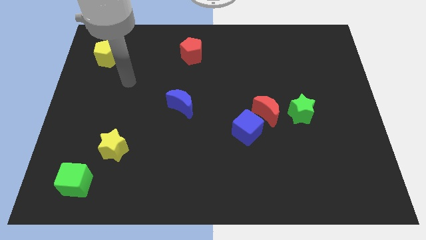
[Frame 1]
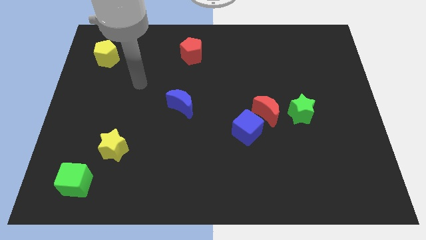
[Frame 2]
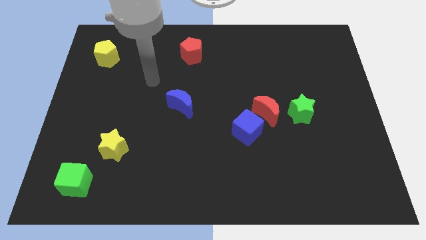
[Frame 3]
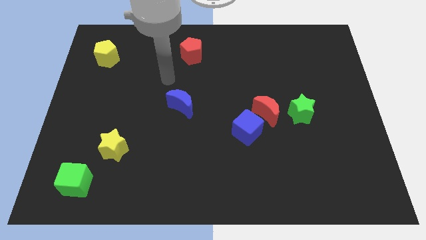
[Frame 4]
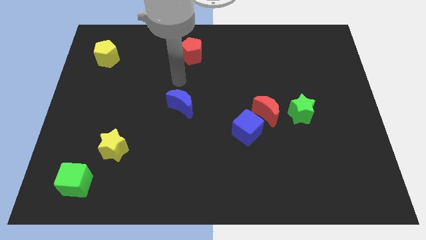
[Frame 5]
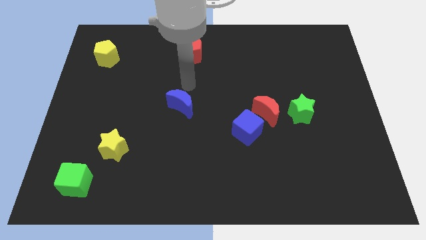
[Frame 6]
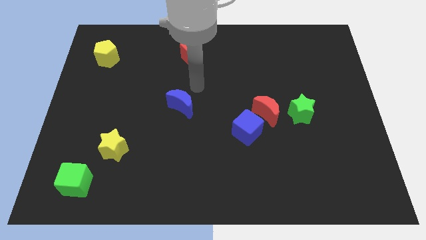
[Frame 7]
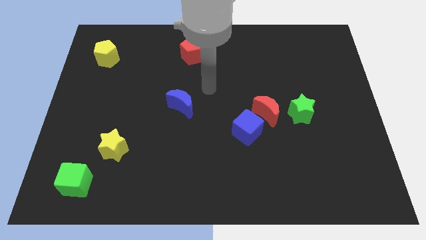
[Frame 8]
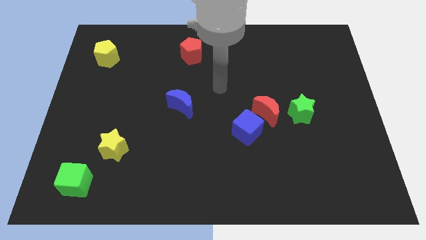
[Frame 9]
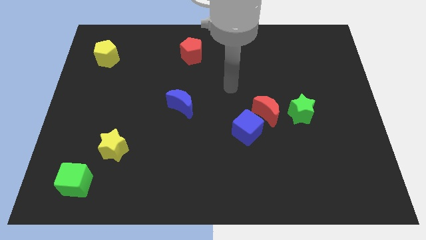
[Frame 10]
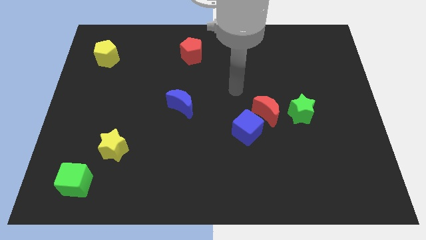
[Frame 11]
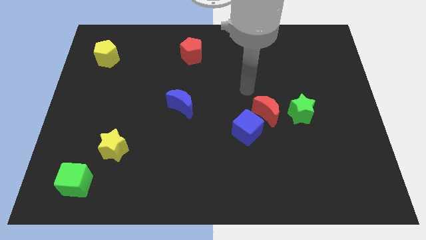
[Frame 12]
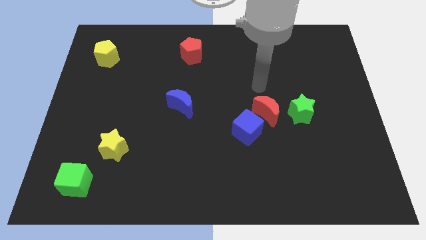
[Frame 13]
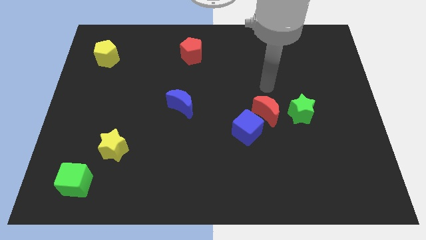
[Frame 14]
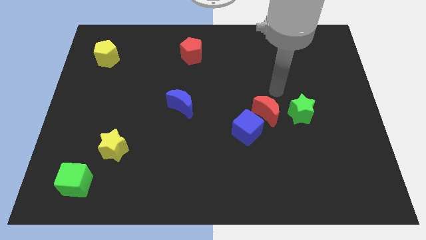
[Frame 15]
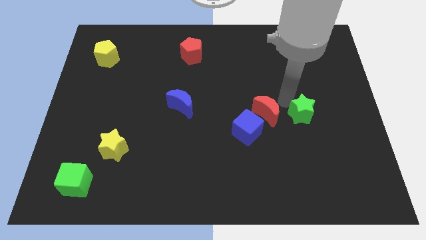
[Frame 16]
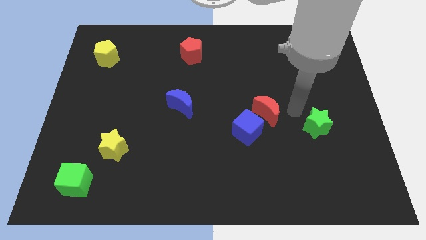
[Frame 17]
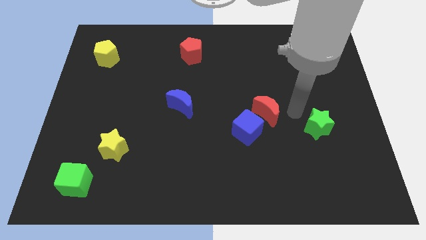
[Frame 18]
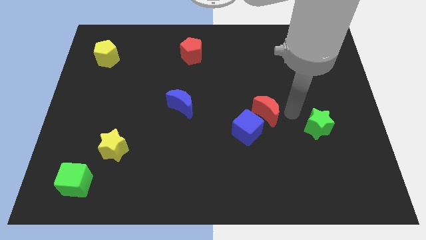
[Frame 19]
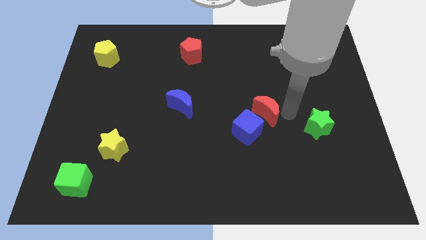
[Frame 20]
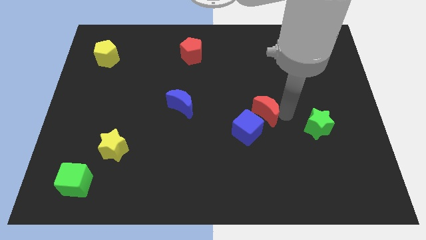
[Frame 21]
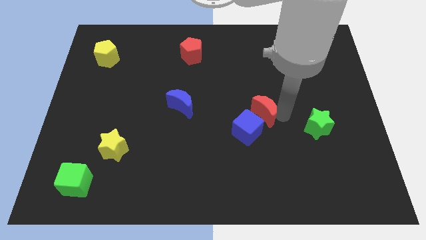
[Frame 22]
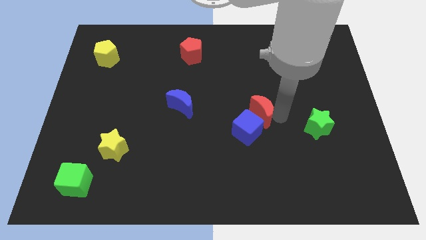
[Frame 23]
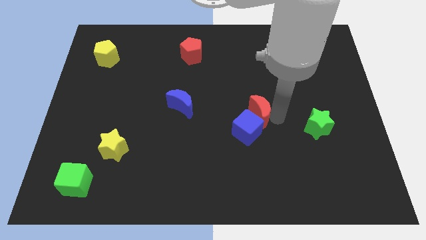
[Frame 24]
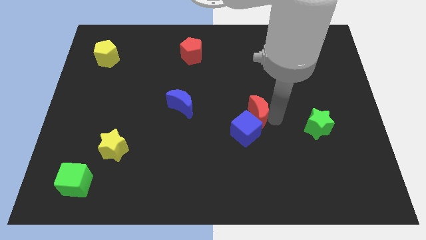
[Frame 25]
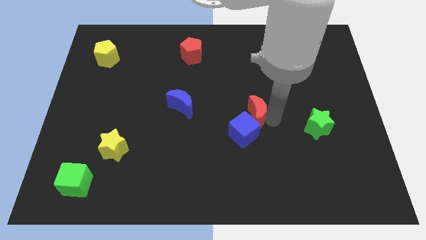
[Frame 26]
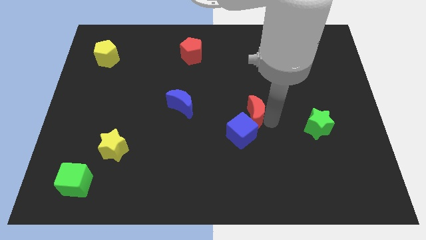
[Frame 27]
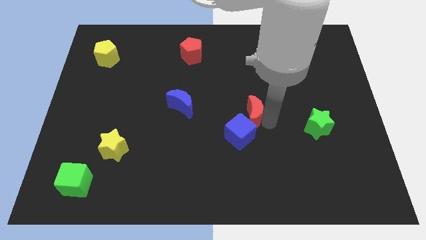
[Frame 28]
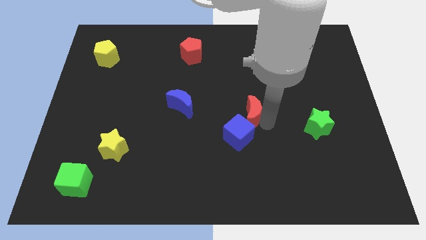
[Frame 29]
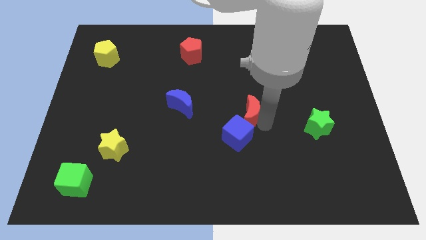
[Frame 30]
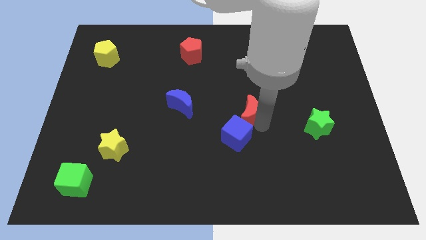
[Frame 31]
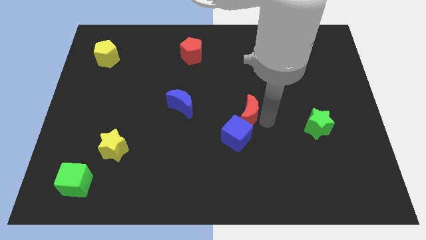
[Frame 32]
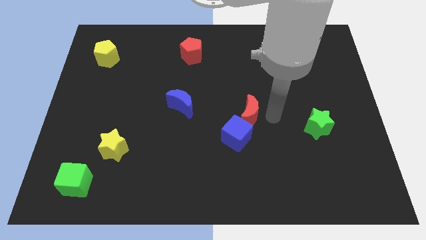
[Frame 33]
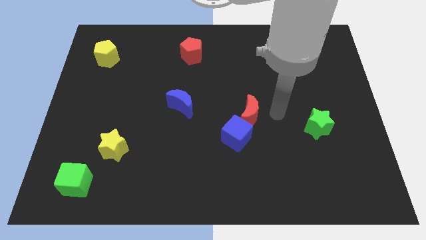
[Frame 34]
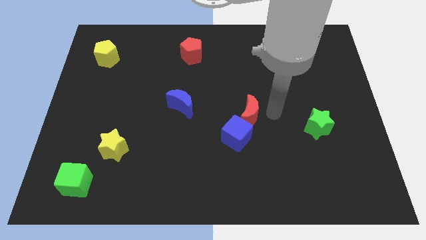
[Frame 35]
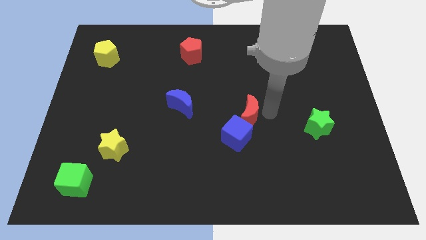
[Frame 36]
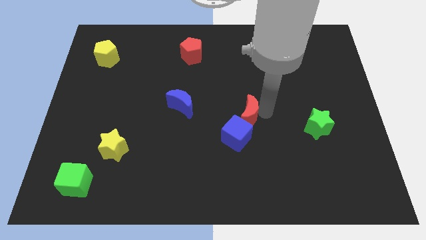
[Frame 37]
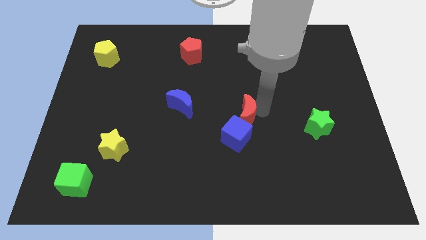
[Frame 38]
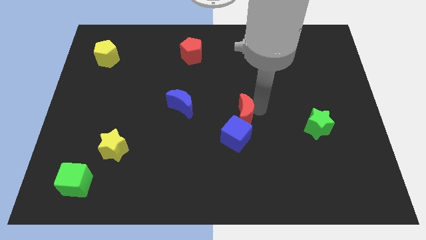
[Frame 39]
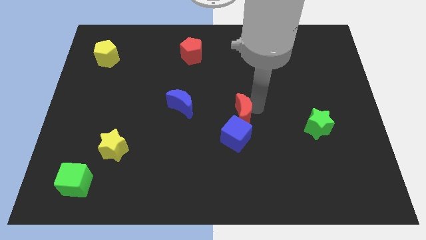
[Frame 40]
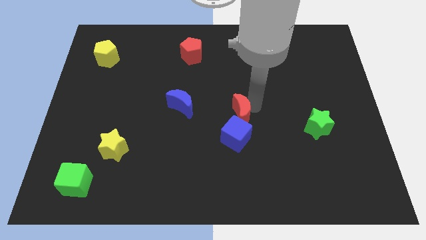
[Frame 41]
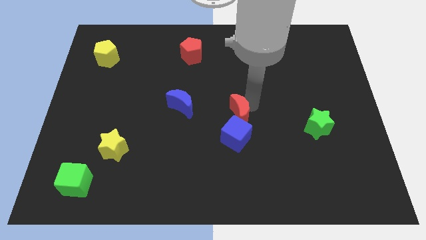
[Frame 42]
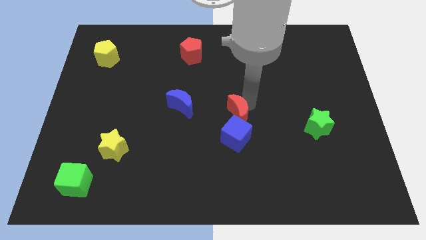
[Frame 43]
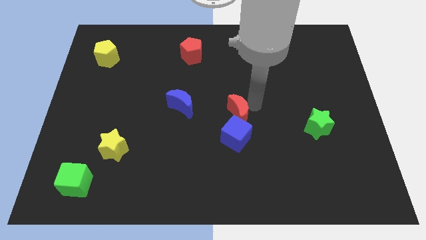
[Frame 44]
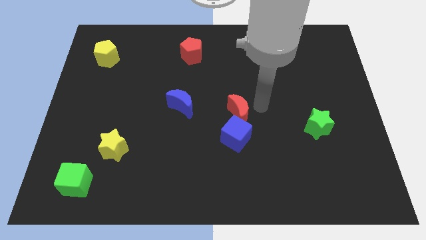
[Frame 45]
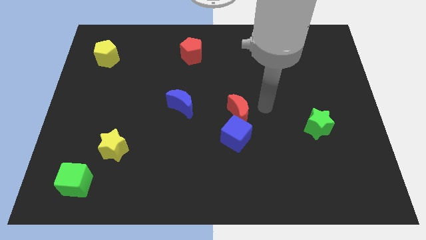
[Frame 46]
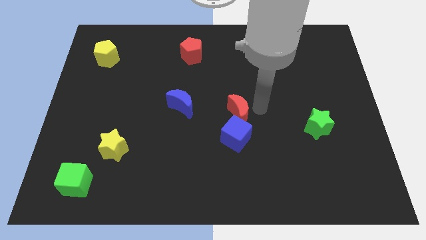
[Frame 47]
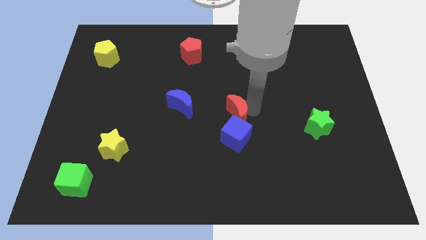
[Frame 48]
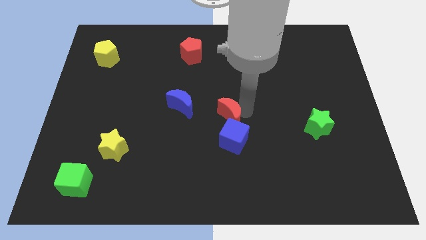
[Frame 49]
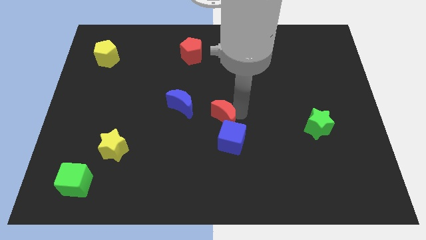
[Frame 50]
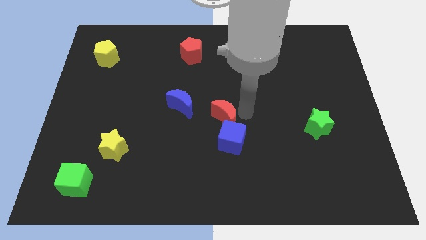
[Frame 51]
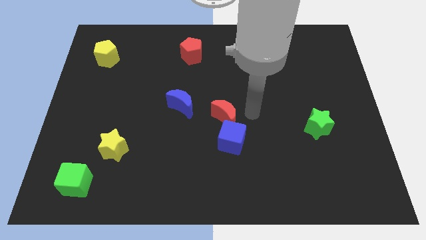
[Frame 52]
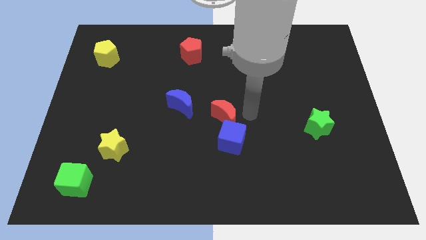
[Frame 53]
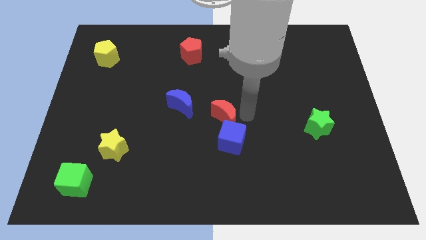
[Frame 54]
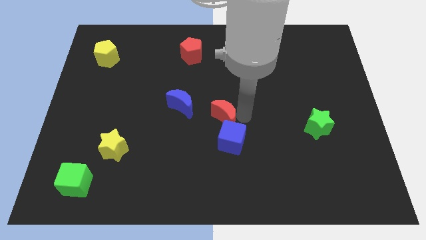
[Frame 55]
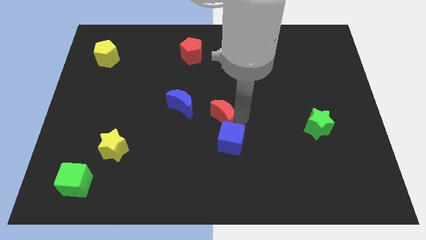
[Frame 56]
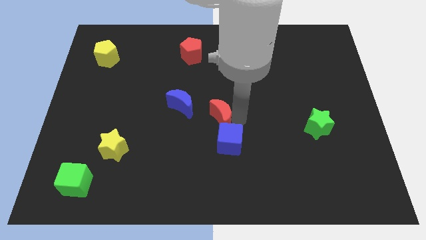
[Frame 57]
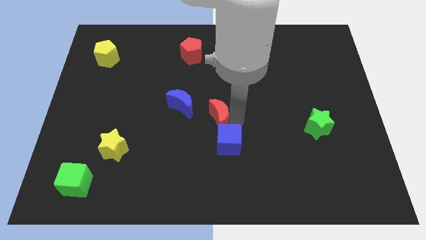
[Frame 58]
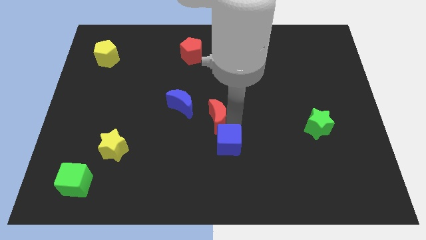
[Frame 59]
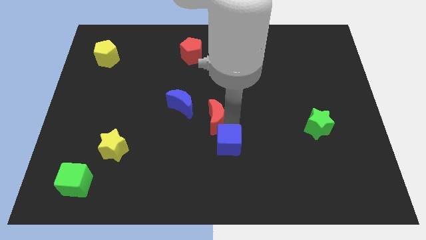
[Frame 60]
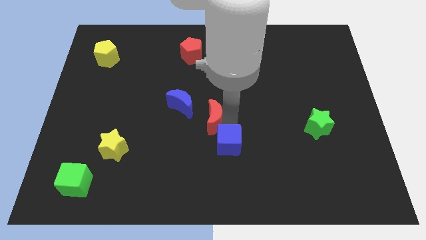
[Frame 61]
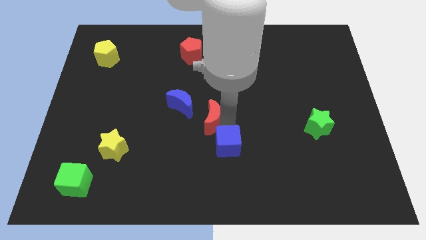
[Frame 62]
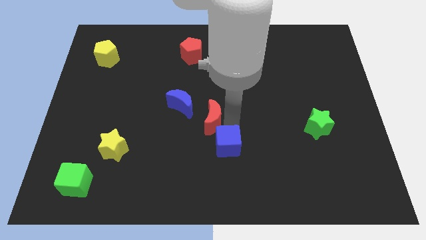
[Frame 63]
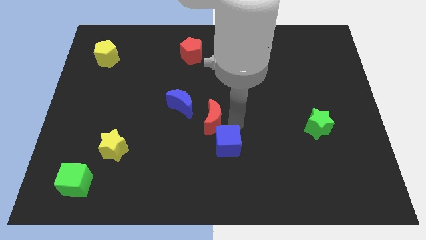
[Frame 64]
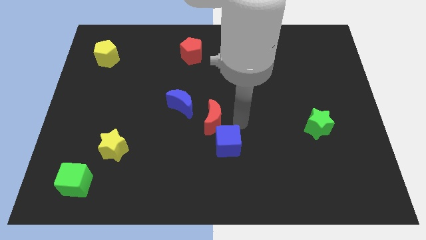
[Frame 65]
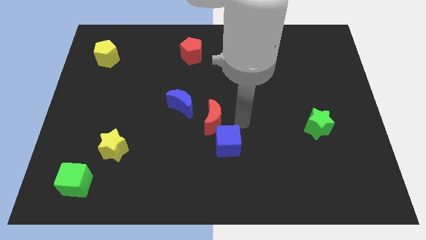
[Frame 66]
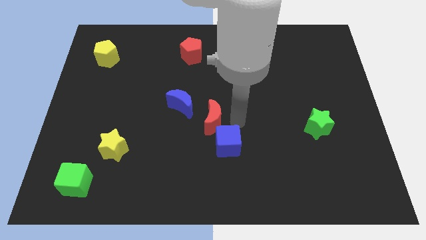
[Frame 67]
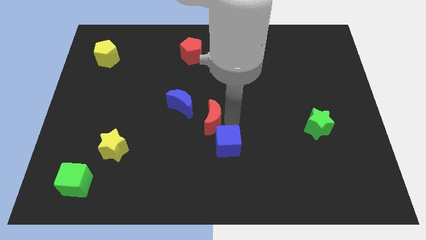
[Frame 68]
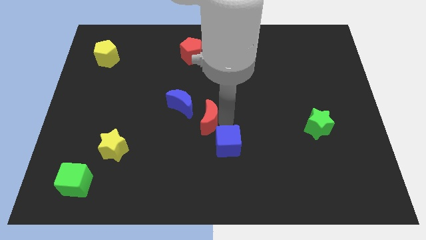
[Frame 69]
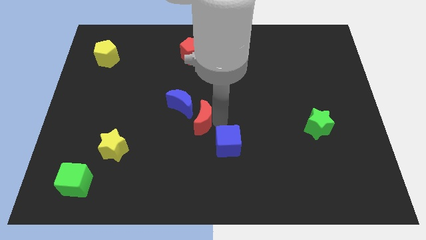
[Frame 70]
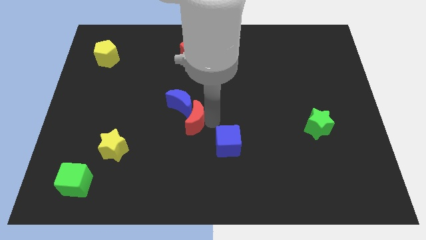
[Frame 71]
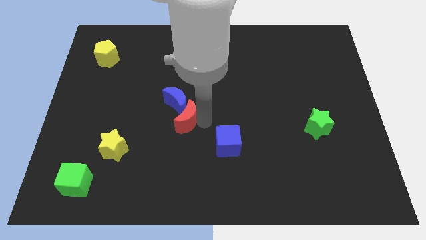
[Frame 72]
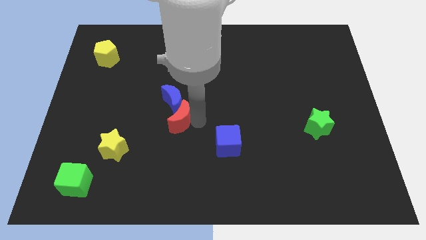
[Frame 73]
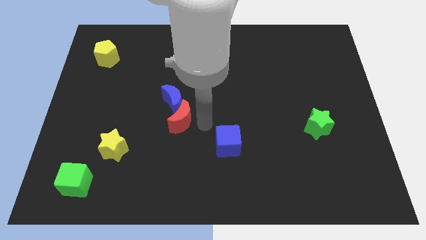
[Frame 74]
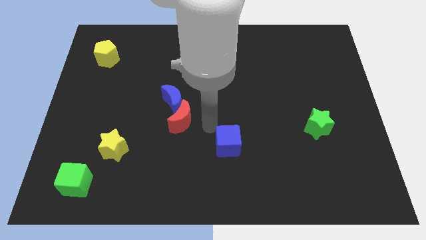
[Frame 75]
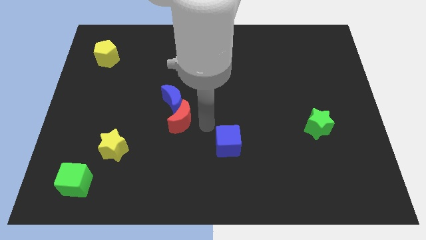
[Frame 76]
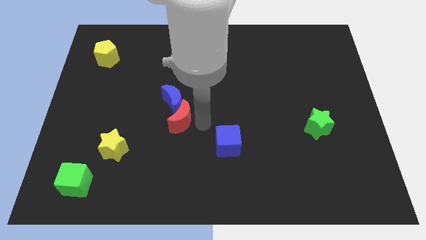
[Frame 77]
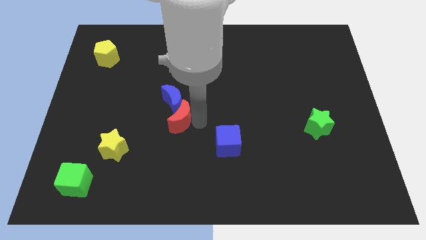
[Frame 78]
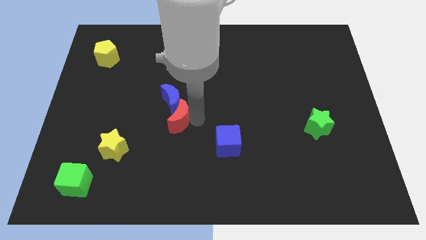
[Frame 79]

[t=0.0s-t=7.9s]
slide the red moon left

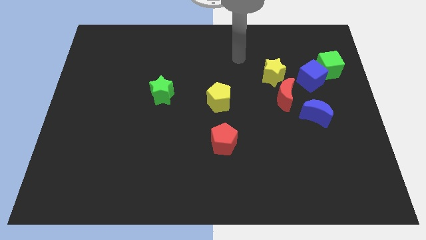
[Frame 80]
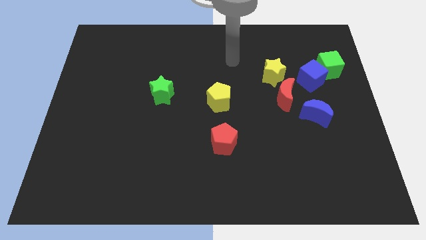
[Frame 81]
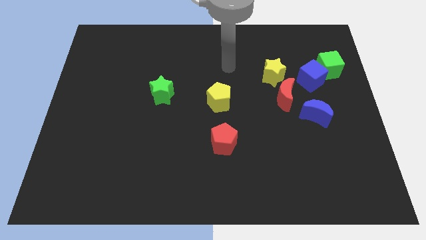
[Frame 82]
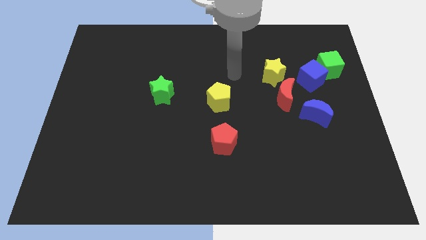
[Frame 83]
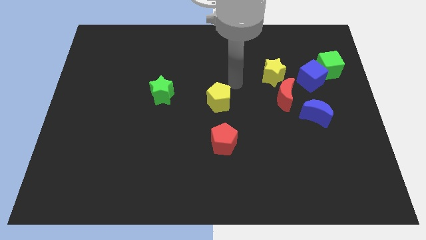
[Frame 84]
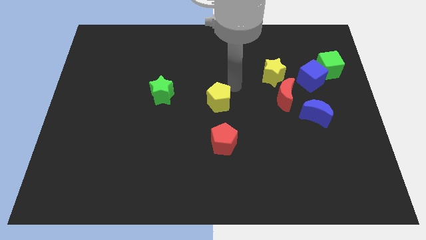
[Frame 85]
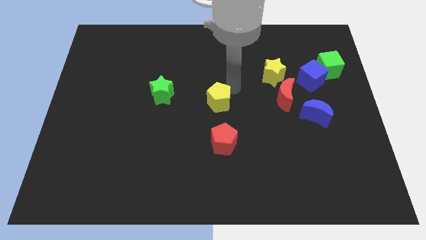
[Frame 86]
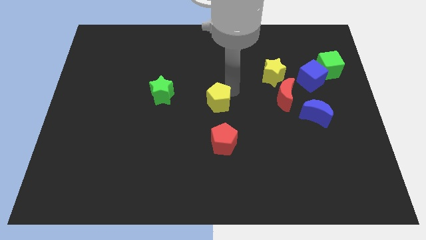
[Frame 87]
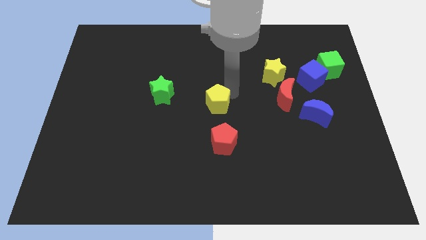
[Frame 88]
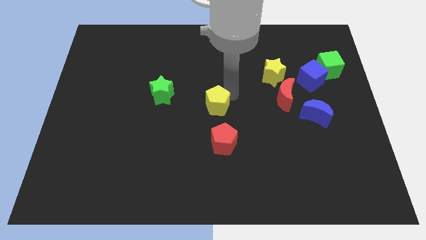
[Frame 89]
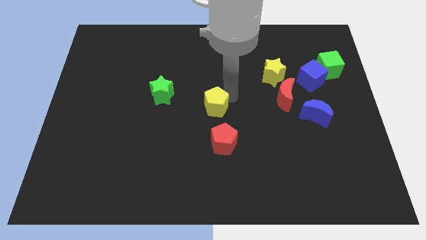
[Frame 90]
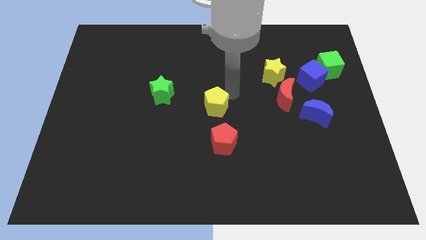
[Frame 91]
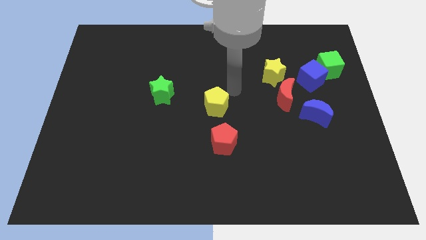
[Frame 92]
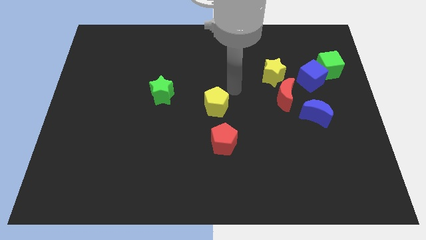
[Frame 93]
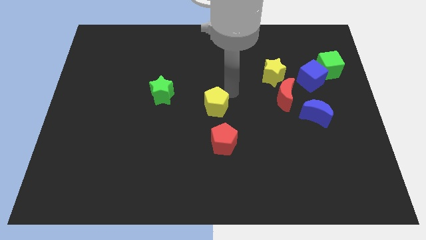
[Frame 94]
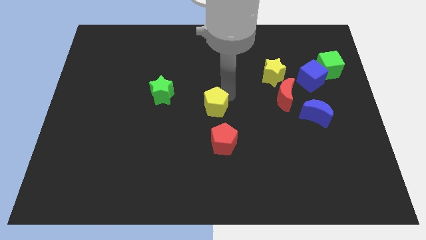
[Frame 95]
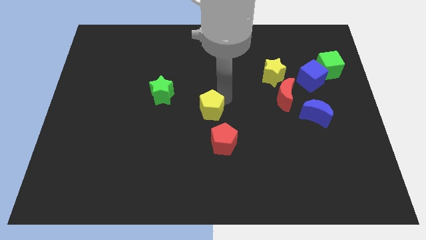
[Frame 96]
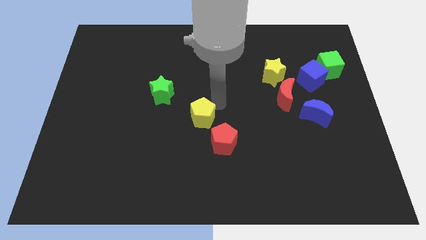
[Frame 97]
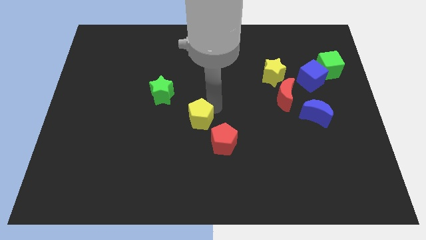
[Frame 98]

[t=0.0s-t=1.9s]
slide the yellow pentagon downwards and then to the left a little
